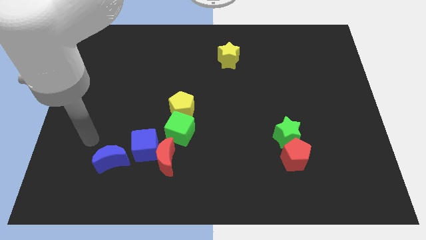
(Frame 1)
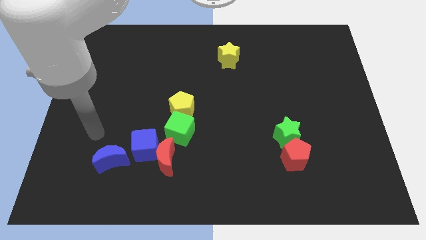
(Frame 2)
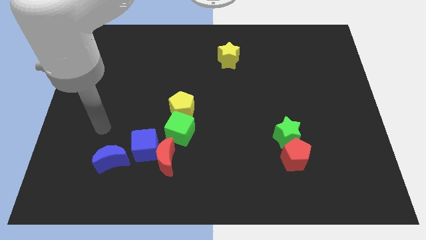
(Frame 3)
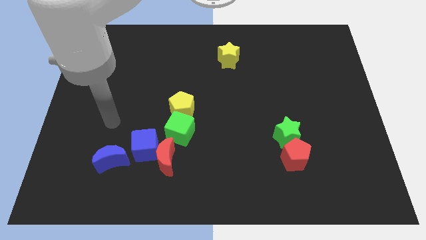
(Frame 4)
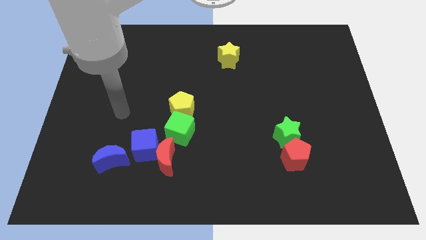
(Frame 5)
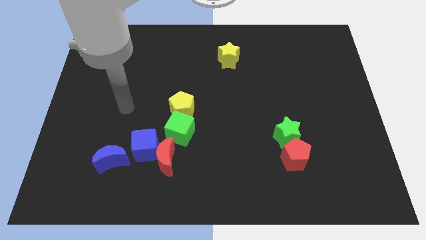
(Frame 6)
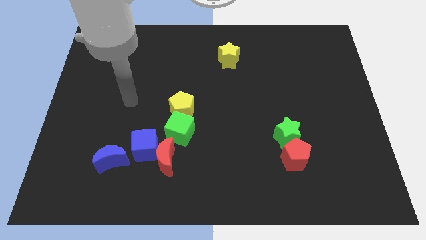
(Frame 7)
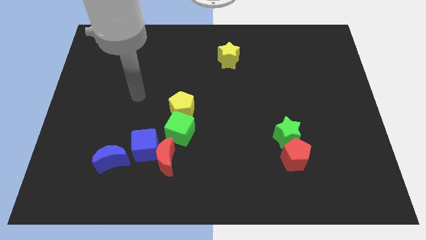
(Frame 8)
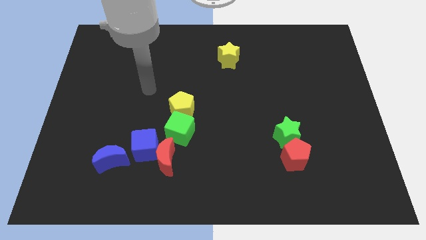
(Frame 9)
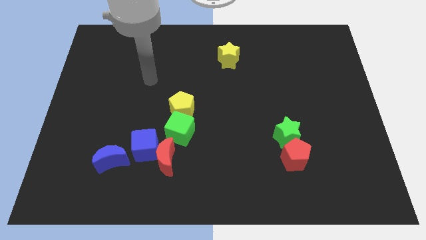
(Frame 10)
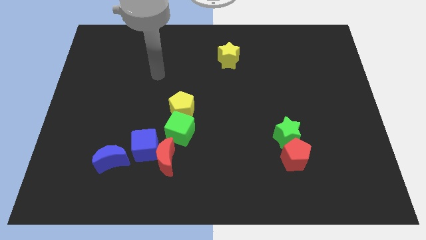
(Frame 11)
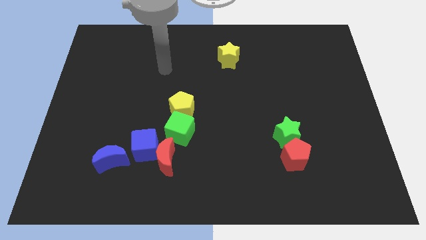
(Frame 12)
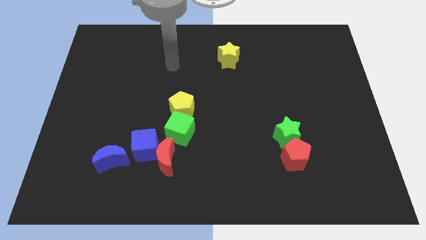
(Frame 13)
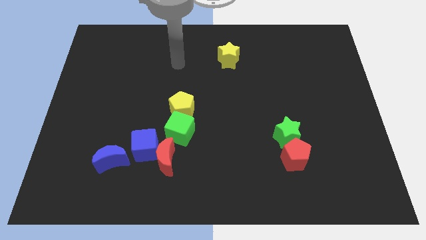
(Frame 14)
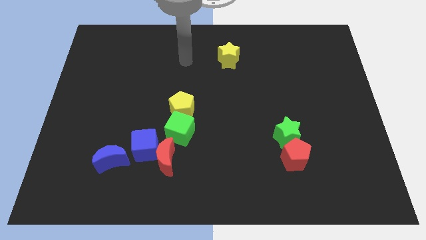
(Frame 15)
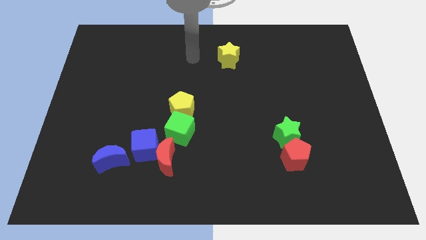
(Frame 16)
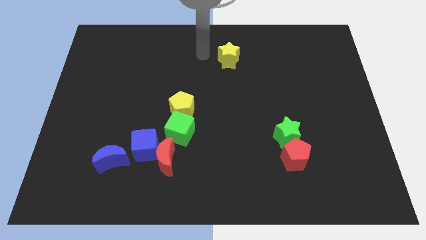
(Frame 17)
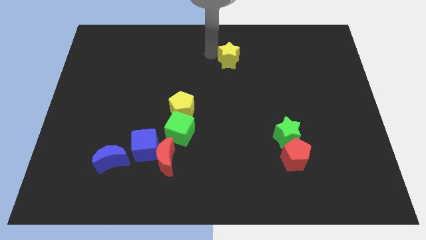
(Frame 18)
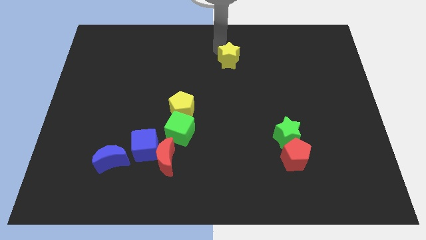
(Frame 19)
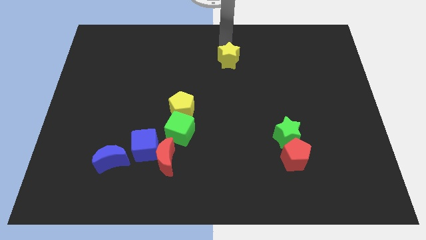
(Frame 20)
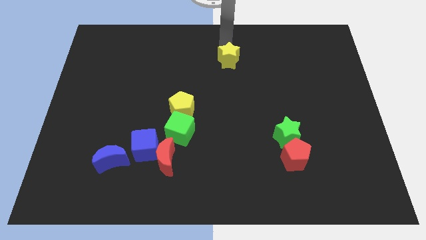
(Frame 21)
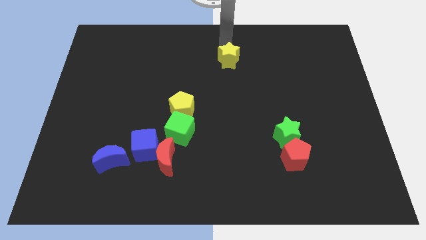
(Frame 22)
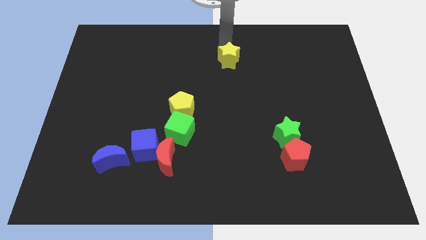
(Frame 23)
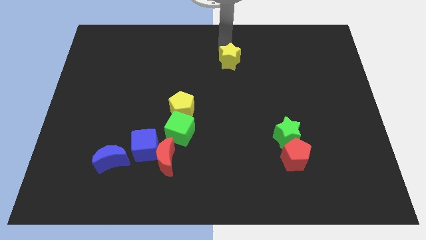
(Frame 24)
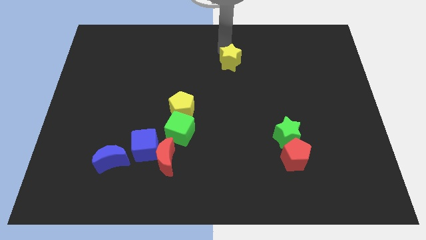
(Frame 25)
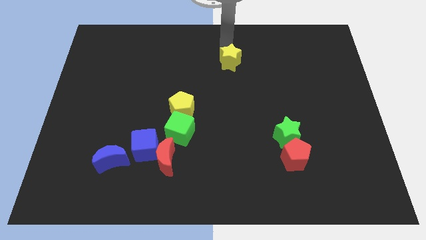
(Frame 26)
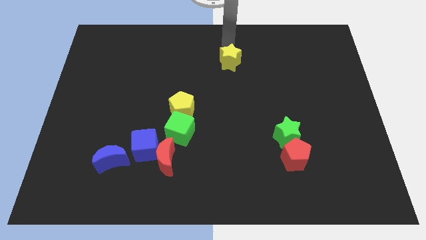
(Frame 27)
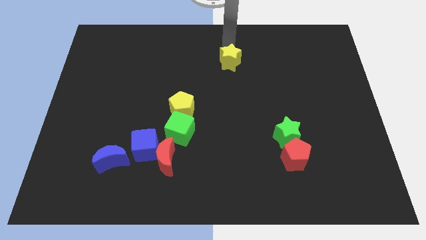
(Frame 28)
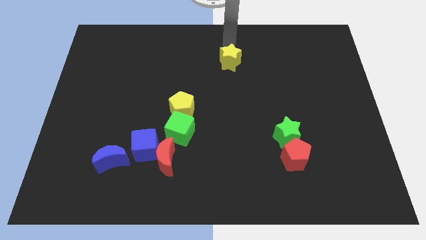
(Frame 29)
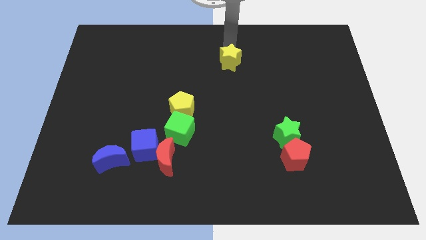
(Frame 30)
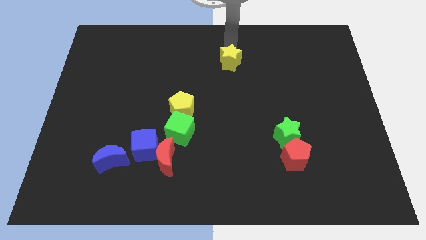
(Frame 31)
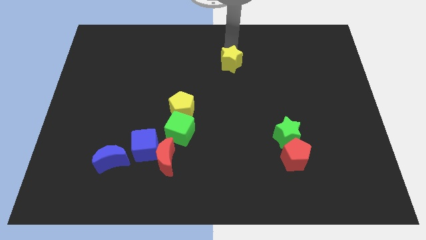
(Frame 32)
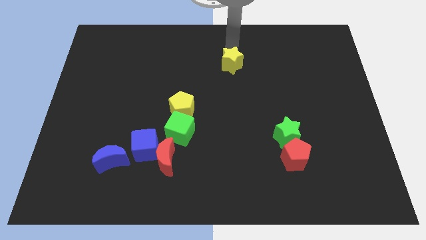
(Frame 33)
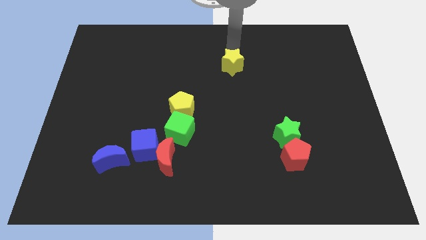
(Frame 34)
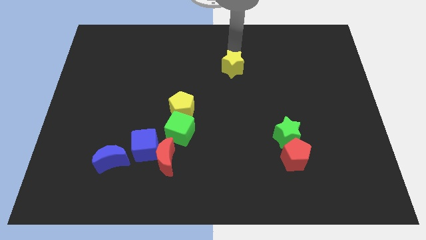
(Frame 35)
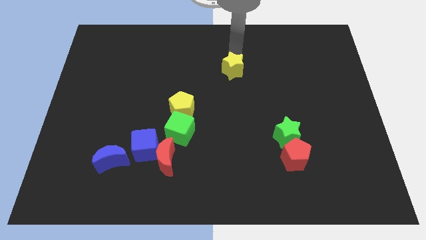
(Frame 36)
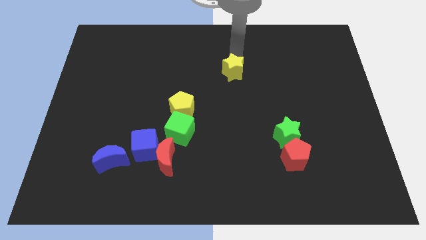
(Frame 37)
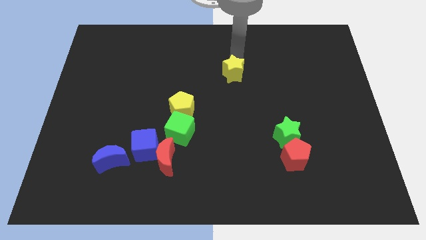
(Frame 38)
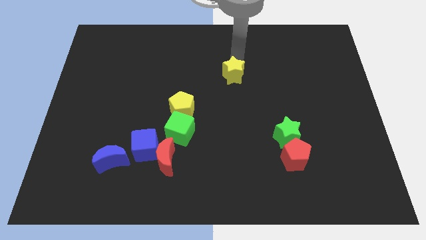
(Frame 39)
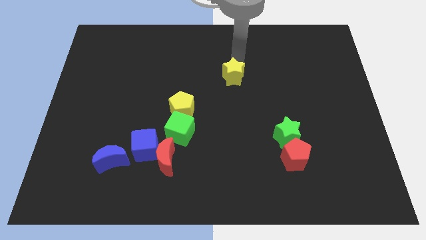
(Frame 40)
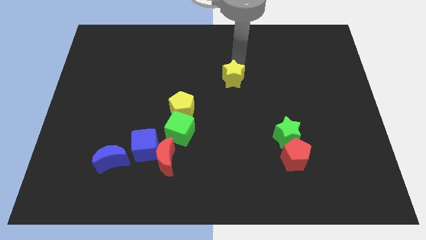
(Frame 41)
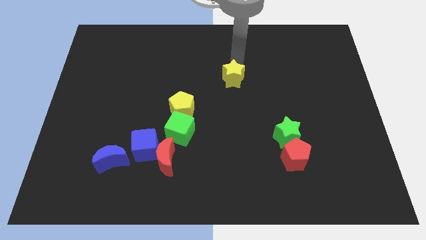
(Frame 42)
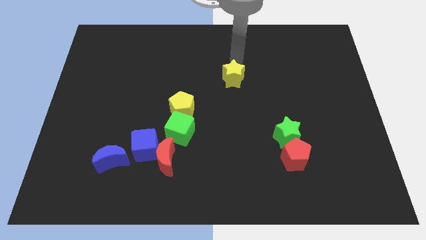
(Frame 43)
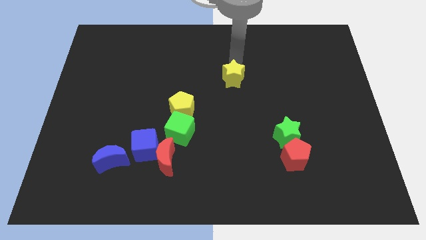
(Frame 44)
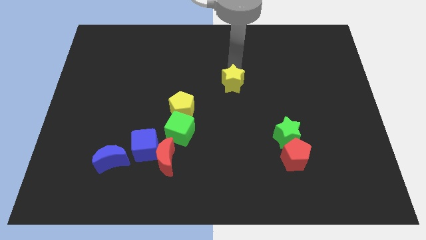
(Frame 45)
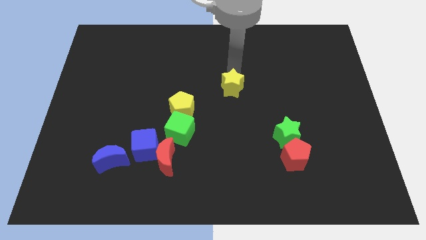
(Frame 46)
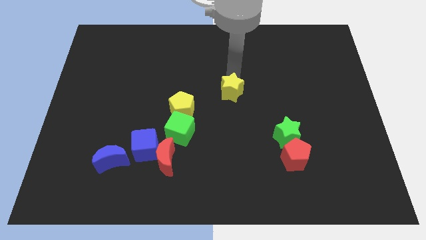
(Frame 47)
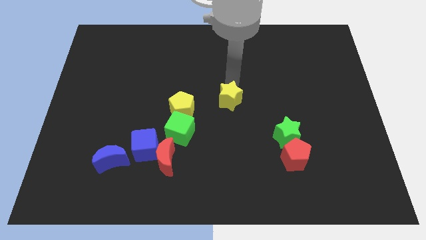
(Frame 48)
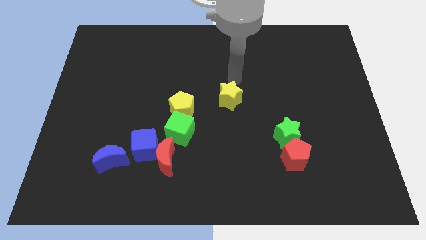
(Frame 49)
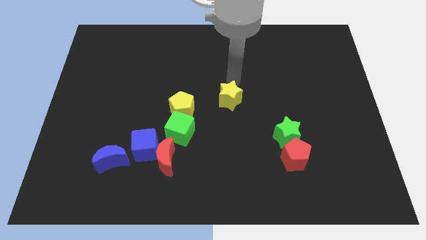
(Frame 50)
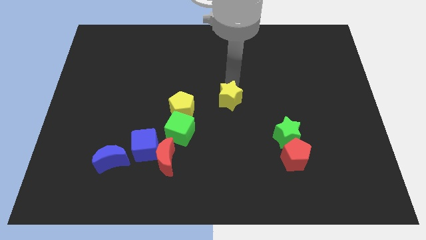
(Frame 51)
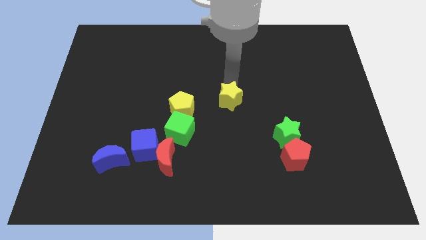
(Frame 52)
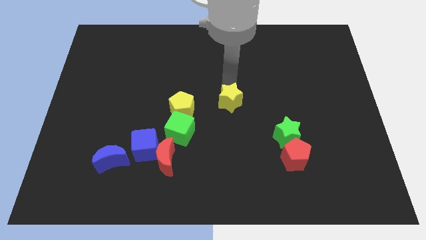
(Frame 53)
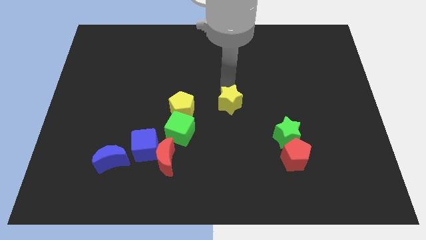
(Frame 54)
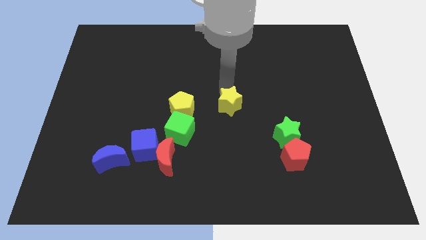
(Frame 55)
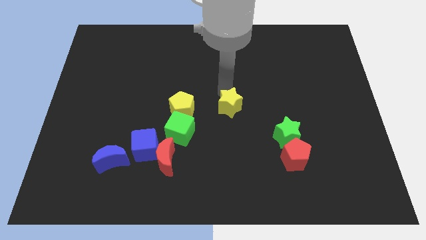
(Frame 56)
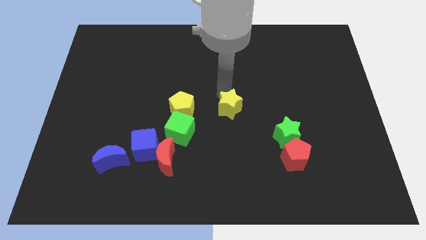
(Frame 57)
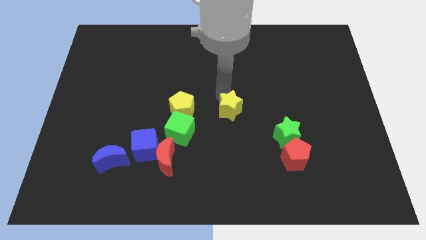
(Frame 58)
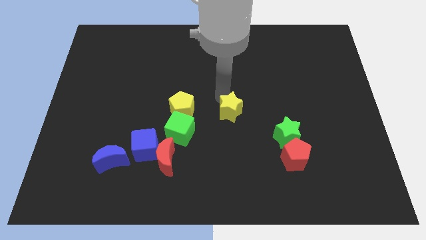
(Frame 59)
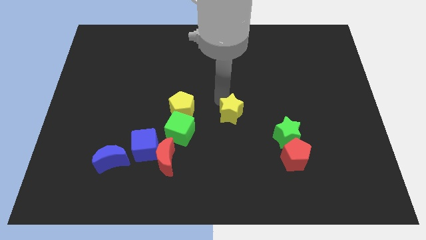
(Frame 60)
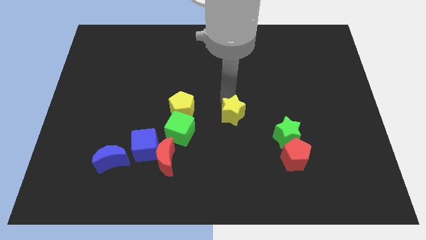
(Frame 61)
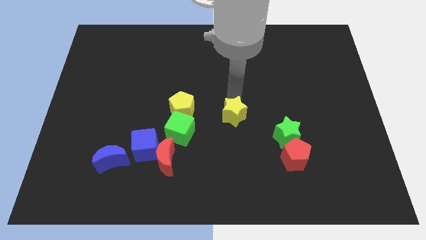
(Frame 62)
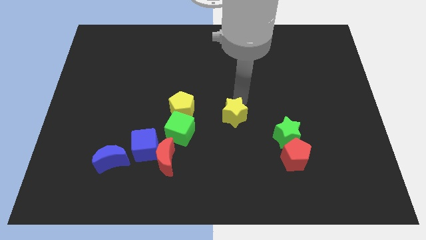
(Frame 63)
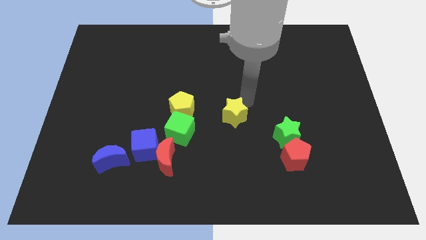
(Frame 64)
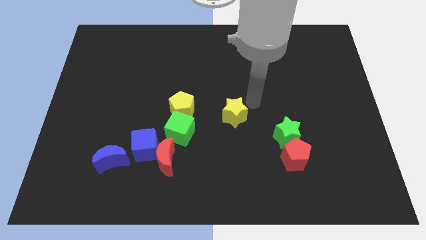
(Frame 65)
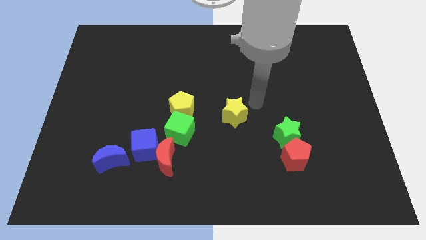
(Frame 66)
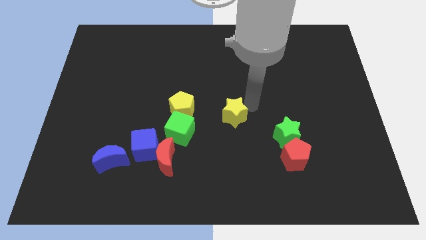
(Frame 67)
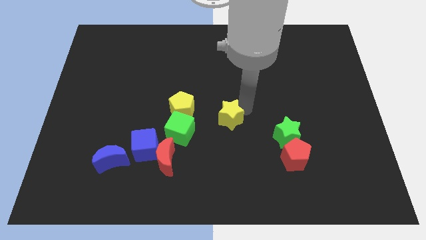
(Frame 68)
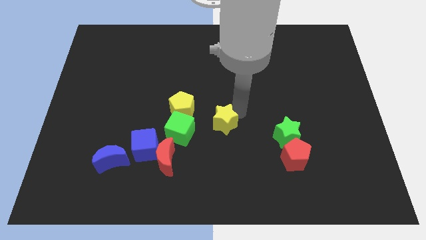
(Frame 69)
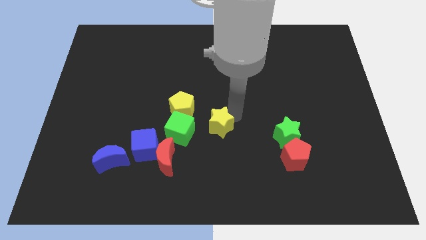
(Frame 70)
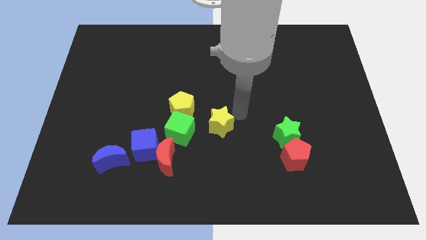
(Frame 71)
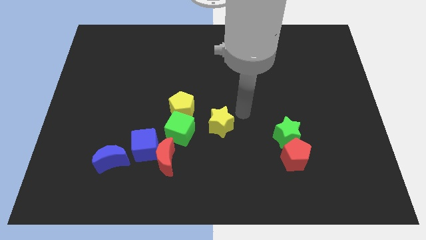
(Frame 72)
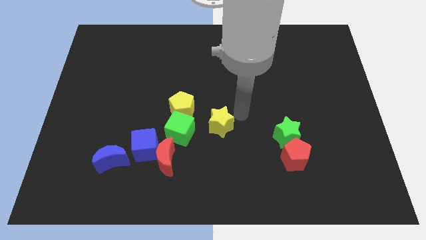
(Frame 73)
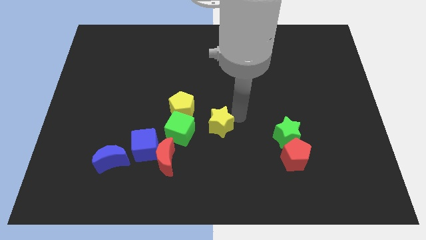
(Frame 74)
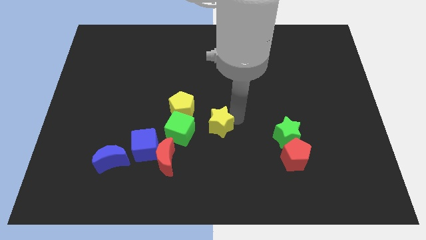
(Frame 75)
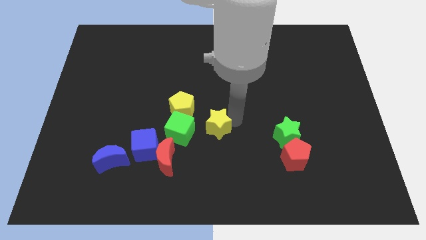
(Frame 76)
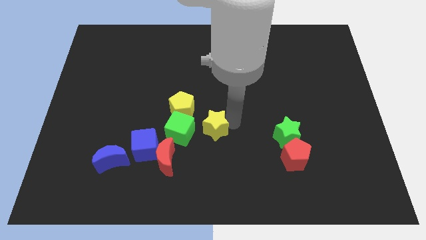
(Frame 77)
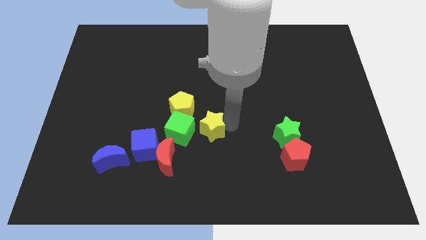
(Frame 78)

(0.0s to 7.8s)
move the yellow star to the top right side of the red moon
